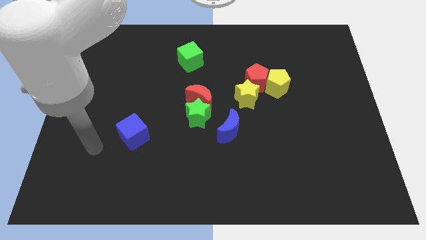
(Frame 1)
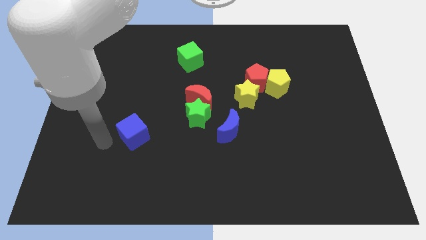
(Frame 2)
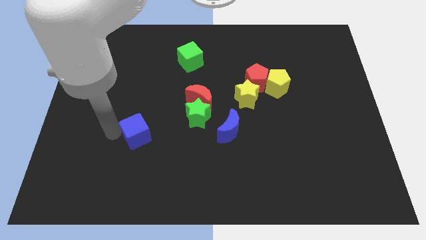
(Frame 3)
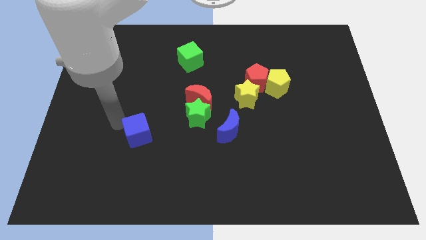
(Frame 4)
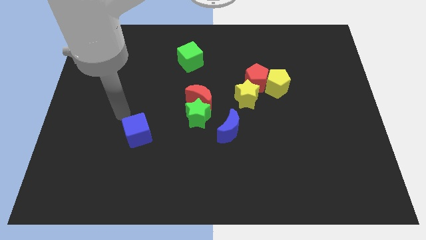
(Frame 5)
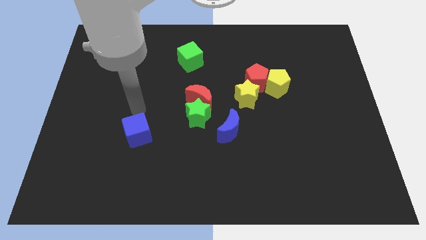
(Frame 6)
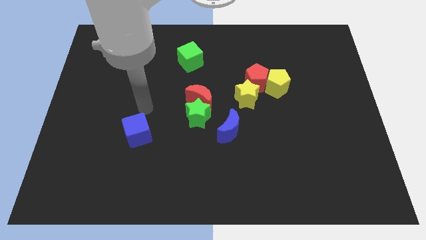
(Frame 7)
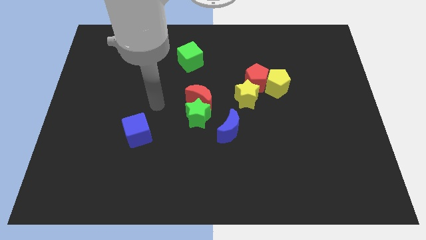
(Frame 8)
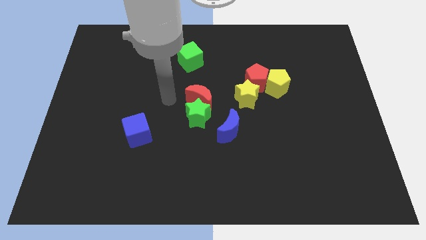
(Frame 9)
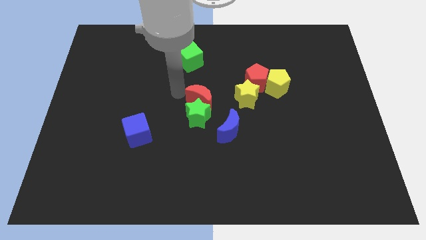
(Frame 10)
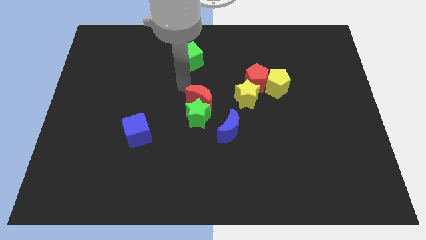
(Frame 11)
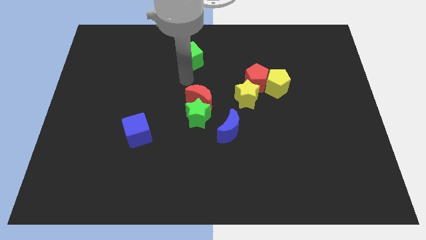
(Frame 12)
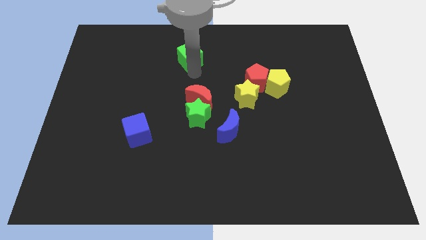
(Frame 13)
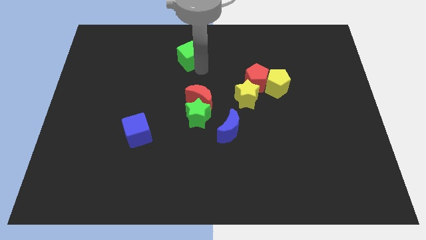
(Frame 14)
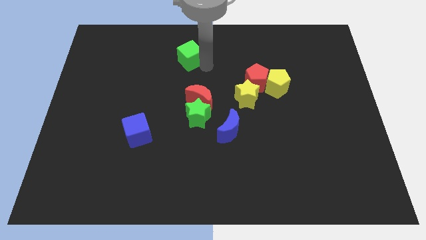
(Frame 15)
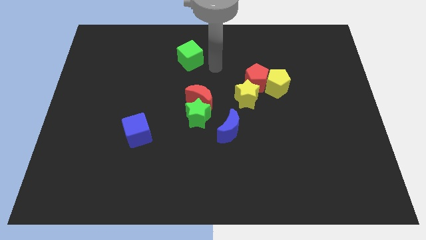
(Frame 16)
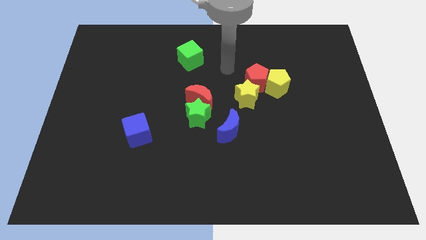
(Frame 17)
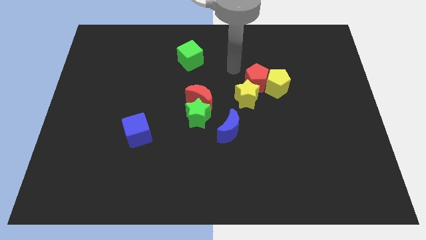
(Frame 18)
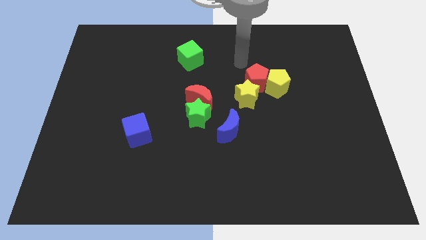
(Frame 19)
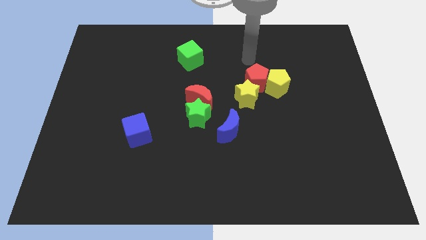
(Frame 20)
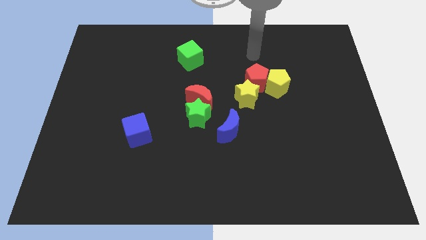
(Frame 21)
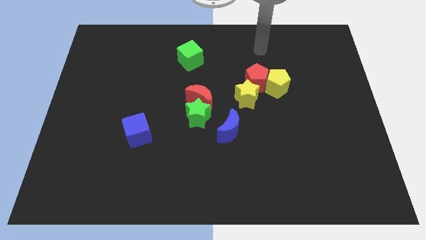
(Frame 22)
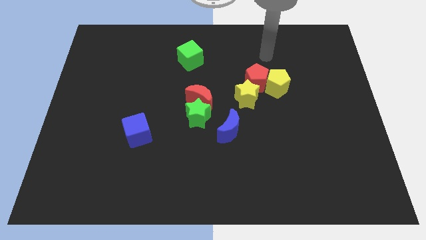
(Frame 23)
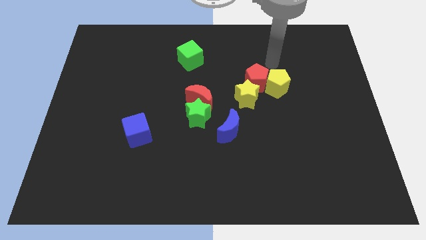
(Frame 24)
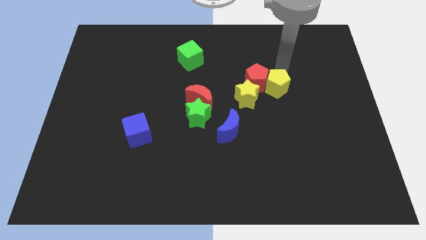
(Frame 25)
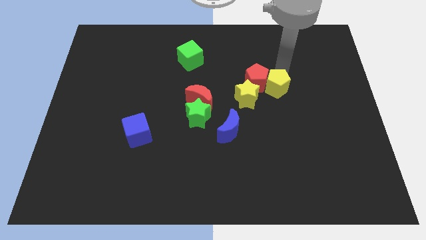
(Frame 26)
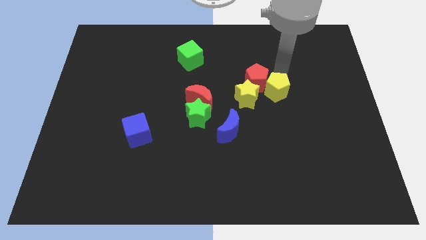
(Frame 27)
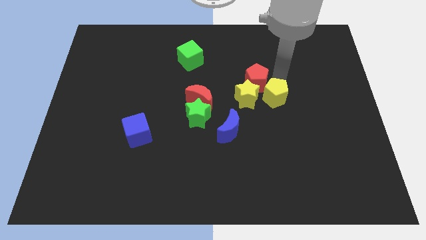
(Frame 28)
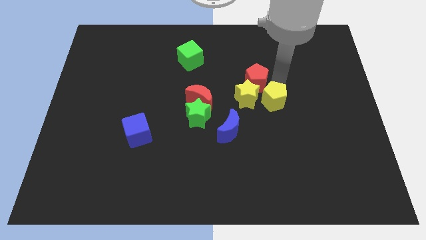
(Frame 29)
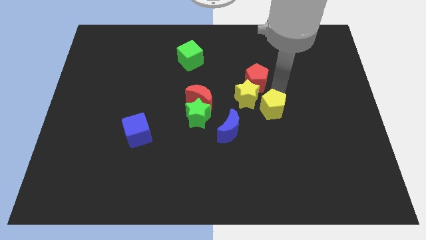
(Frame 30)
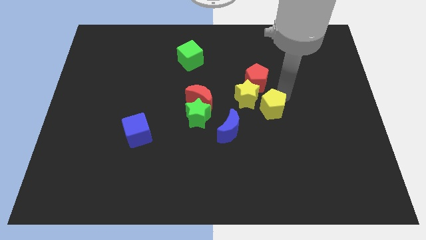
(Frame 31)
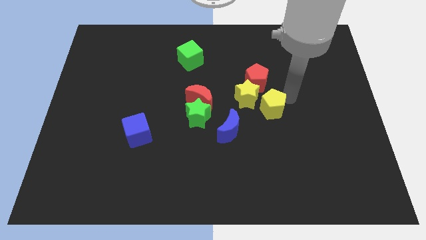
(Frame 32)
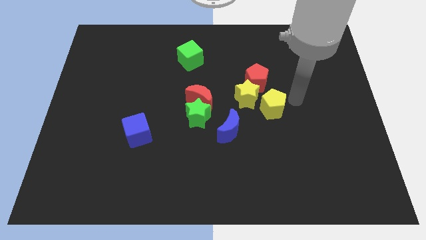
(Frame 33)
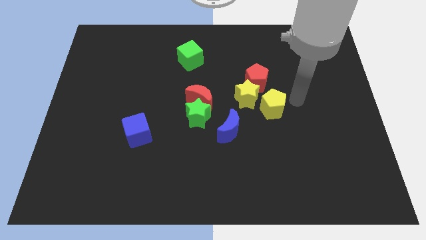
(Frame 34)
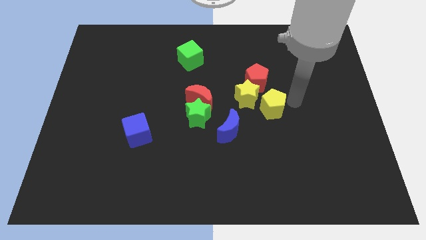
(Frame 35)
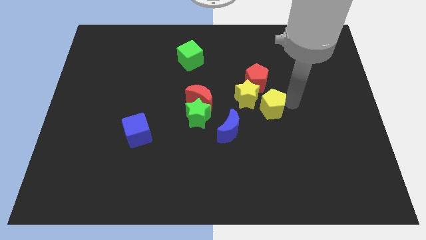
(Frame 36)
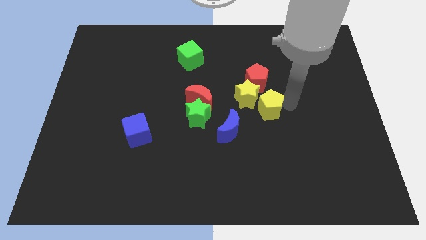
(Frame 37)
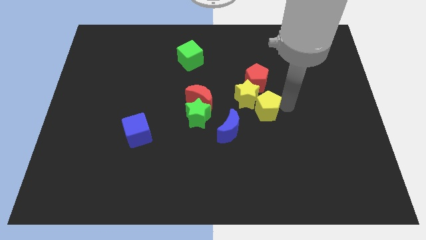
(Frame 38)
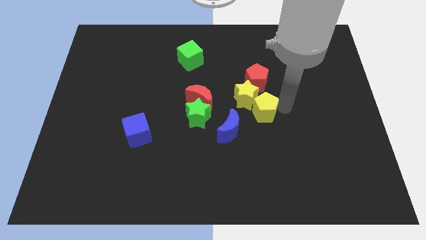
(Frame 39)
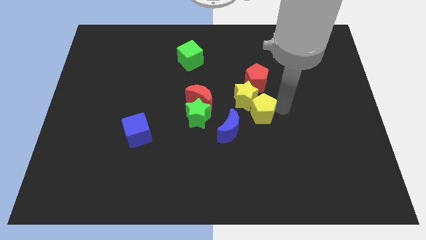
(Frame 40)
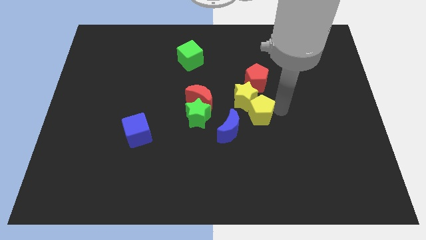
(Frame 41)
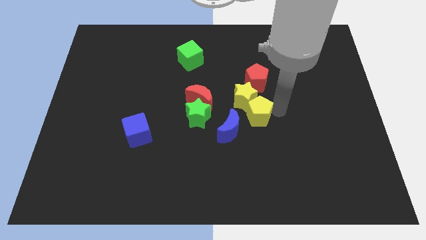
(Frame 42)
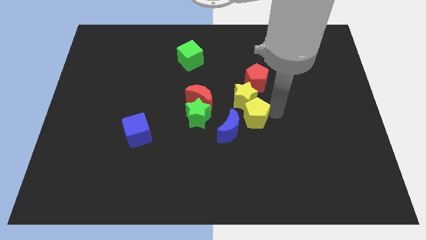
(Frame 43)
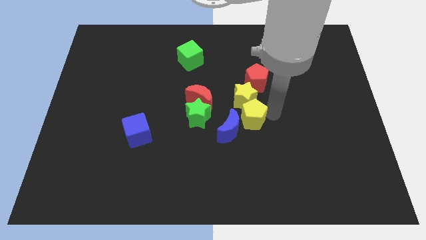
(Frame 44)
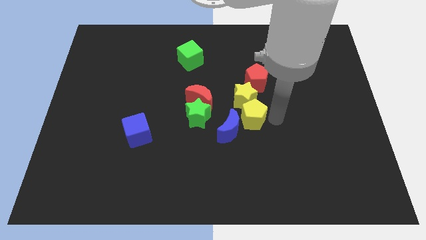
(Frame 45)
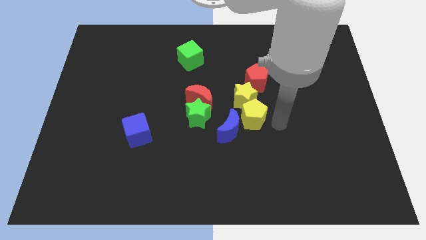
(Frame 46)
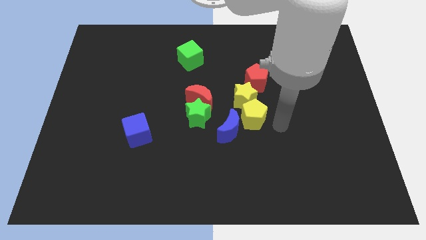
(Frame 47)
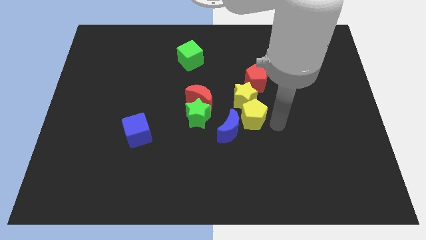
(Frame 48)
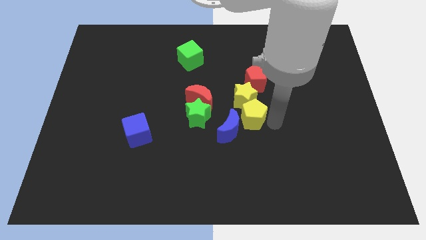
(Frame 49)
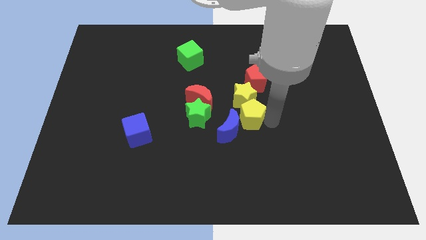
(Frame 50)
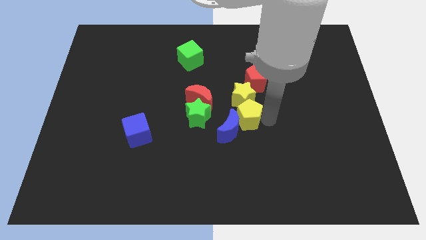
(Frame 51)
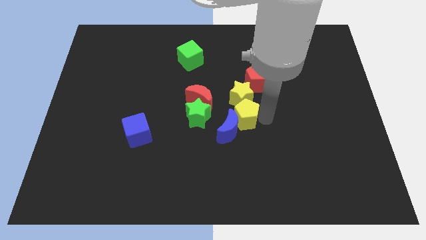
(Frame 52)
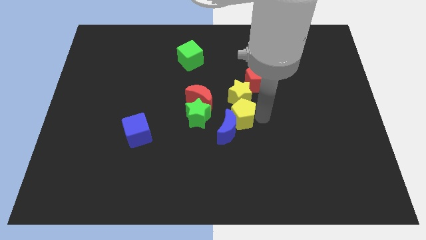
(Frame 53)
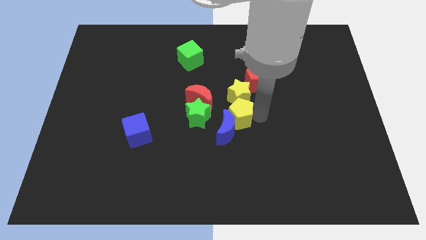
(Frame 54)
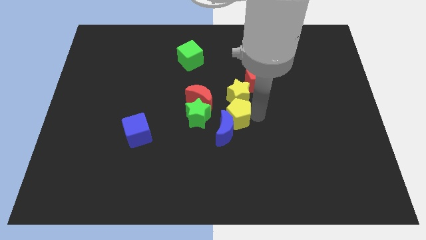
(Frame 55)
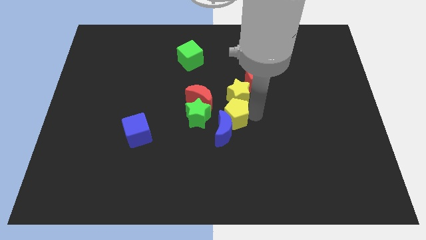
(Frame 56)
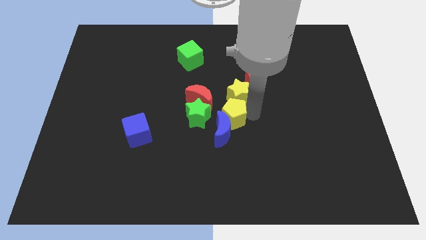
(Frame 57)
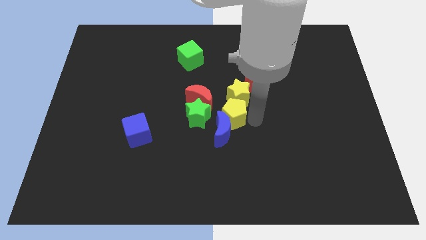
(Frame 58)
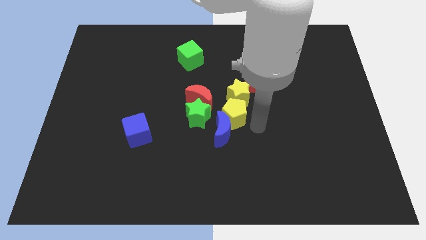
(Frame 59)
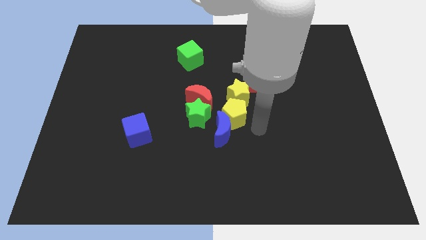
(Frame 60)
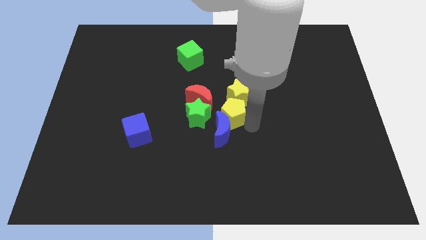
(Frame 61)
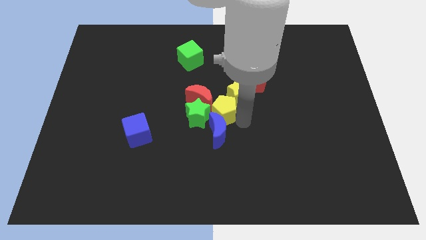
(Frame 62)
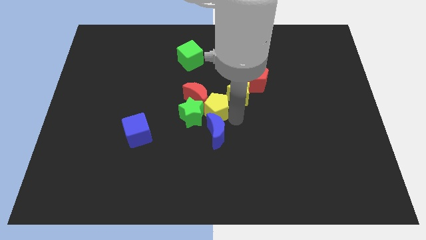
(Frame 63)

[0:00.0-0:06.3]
move the yellow pentagon towards the red moon

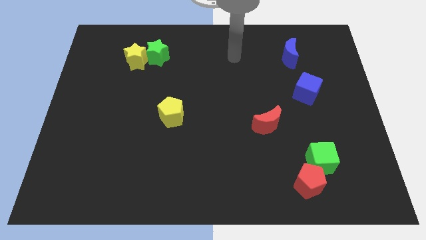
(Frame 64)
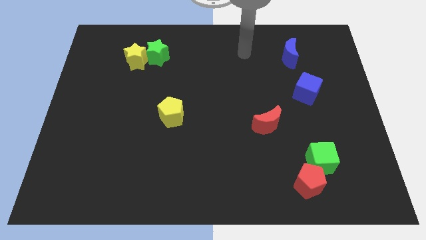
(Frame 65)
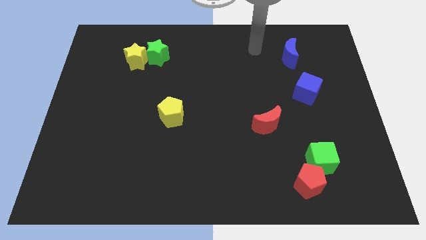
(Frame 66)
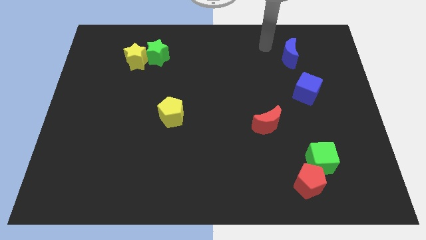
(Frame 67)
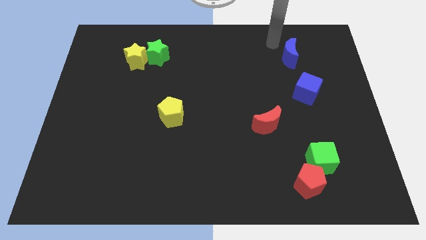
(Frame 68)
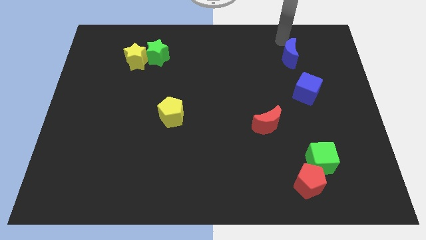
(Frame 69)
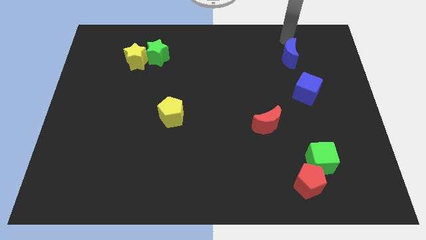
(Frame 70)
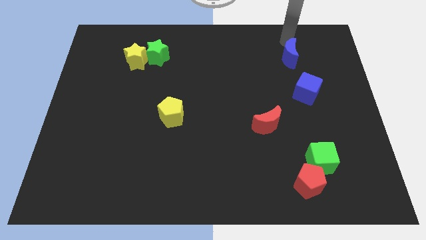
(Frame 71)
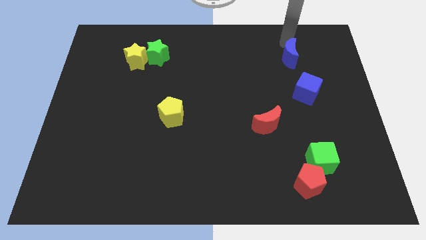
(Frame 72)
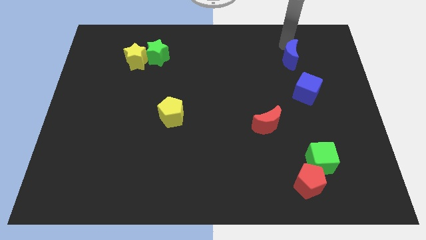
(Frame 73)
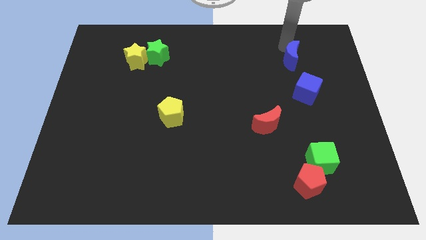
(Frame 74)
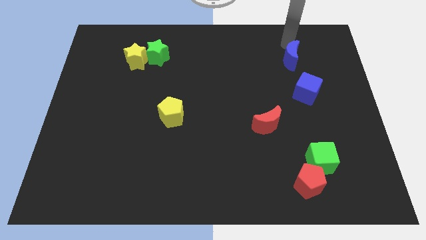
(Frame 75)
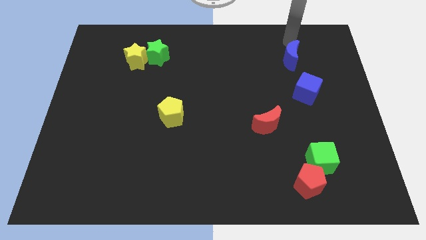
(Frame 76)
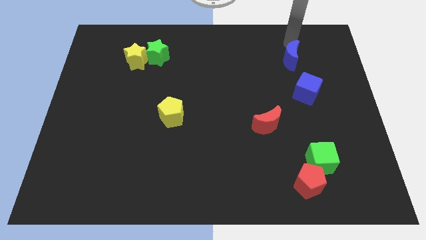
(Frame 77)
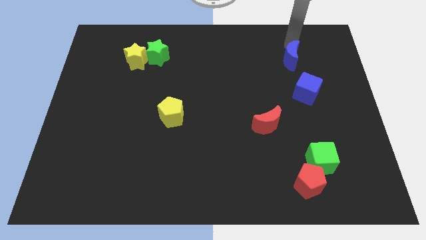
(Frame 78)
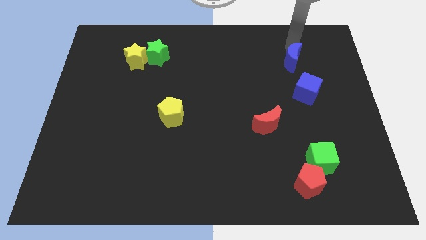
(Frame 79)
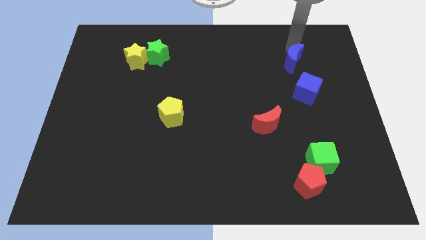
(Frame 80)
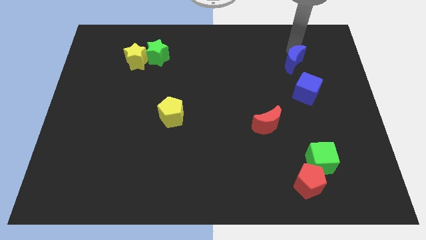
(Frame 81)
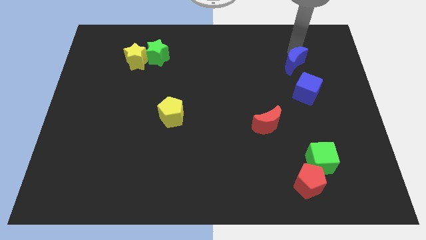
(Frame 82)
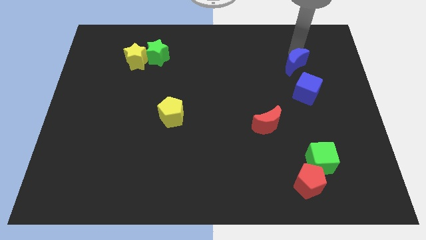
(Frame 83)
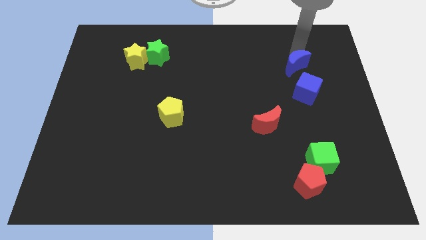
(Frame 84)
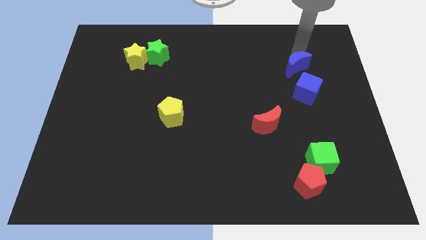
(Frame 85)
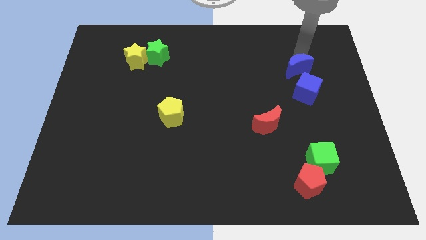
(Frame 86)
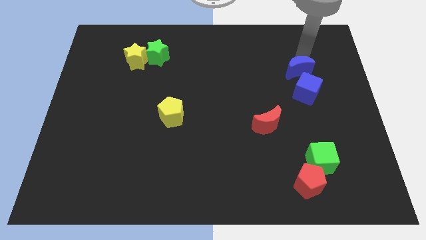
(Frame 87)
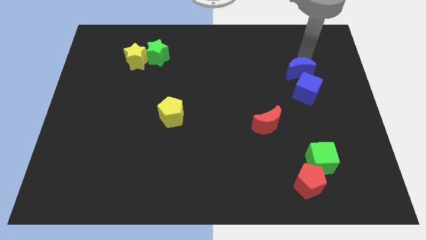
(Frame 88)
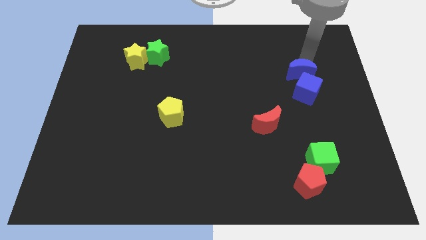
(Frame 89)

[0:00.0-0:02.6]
slide the blue moon close to the blue cube
